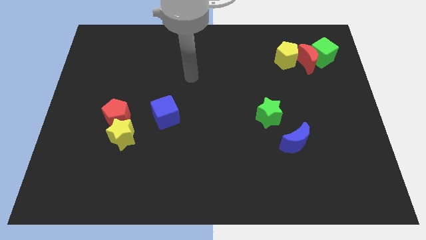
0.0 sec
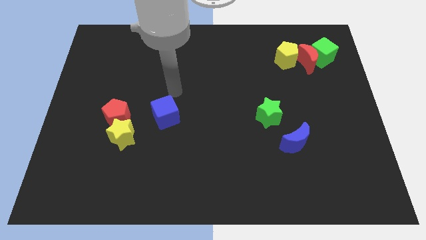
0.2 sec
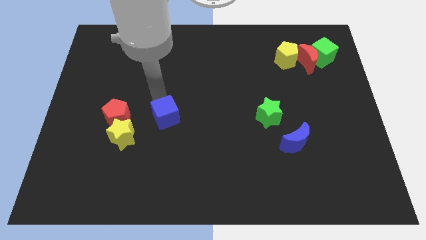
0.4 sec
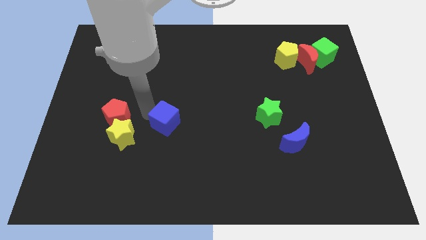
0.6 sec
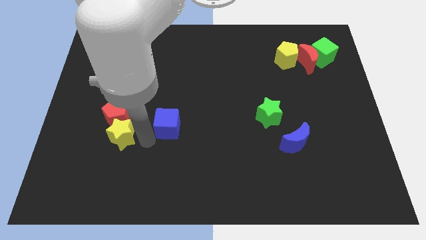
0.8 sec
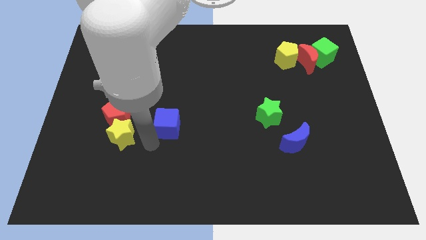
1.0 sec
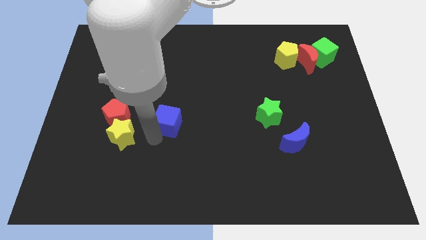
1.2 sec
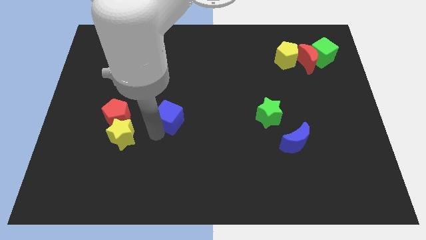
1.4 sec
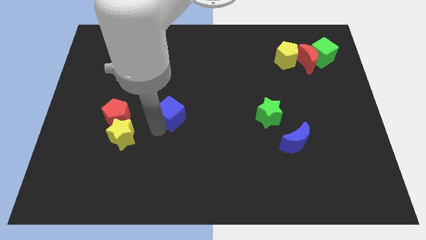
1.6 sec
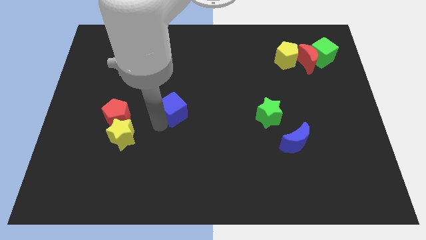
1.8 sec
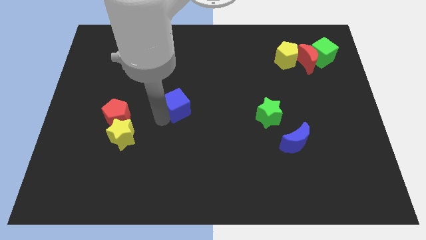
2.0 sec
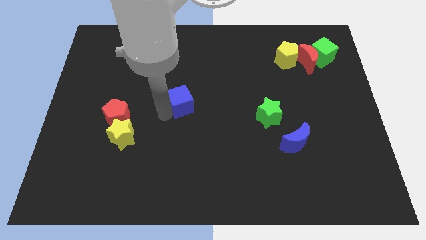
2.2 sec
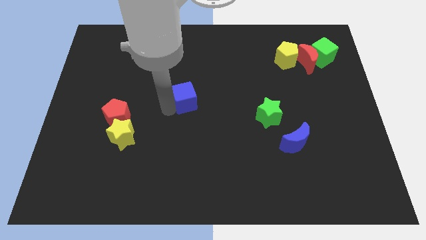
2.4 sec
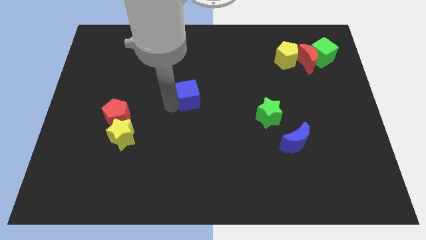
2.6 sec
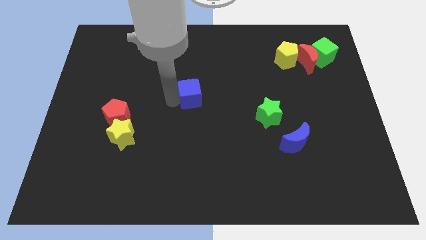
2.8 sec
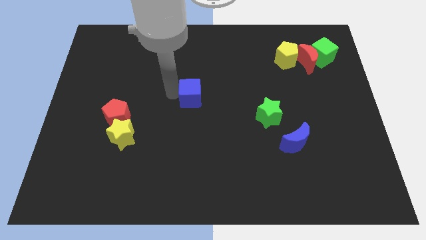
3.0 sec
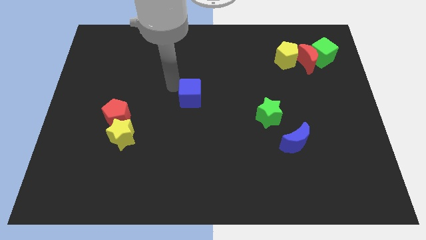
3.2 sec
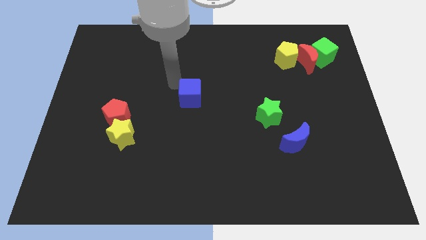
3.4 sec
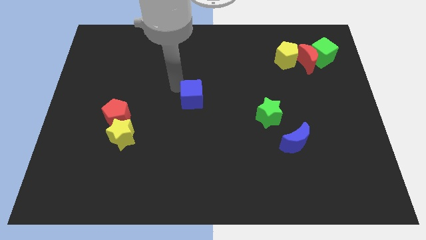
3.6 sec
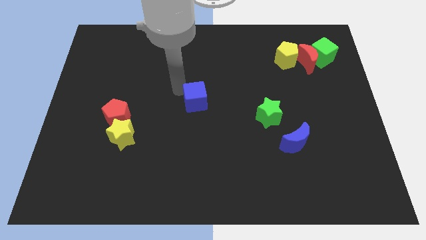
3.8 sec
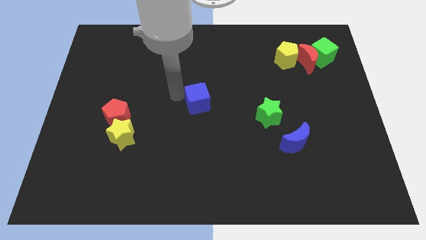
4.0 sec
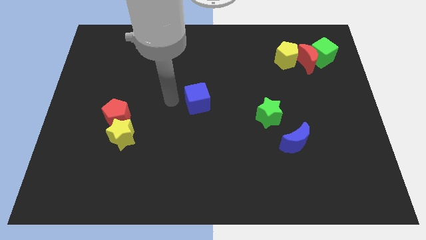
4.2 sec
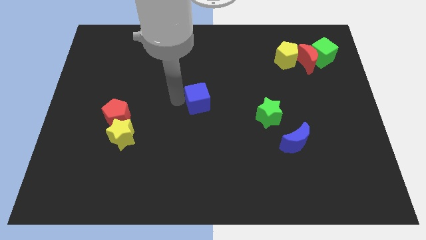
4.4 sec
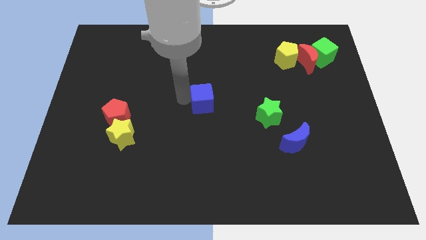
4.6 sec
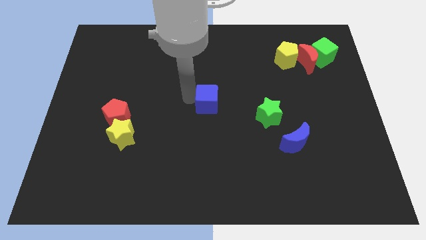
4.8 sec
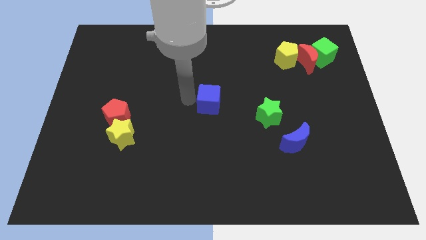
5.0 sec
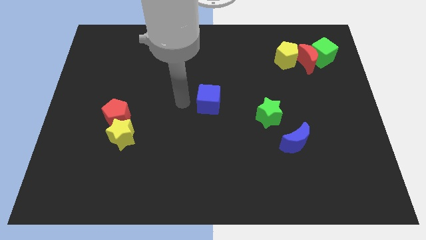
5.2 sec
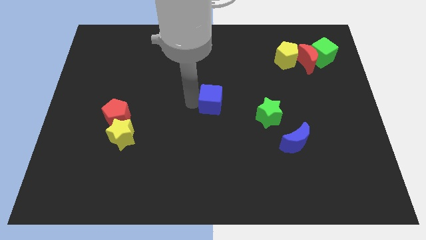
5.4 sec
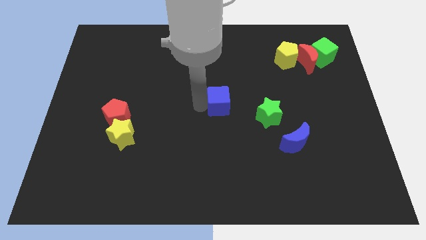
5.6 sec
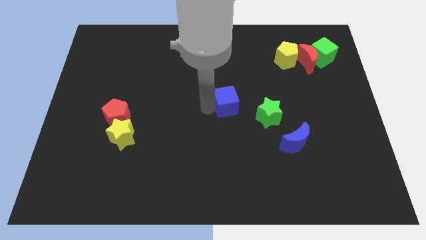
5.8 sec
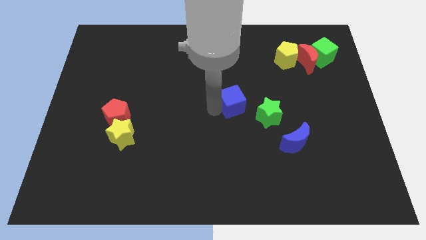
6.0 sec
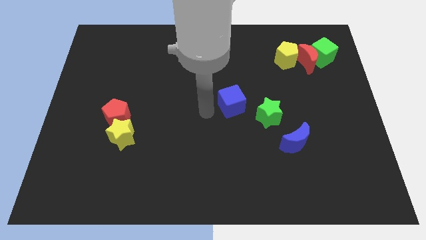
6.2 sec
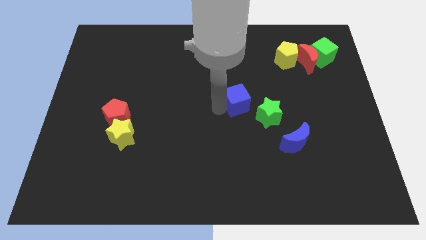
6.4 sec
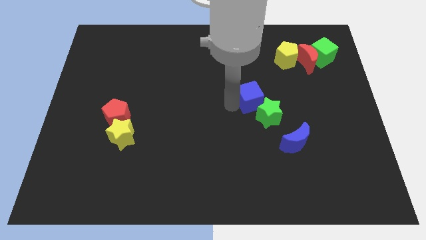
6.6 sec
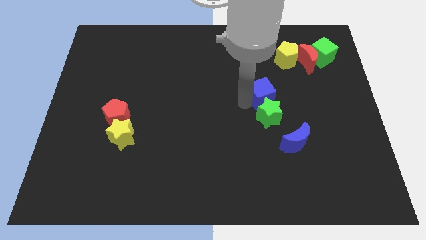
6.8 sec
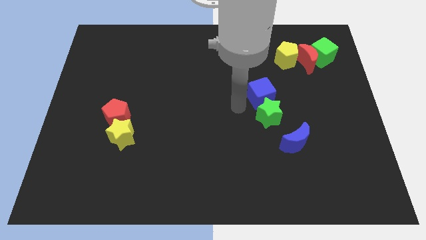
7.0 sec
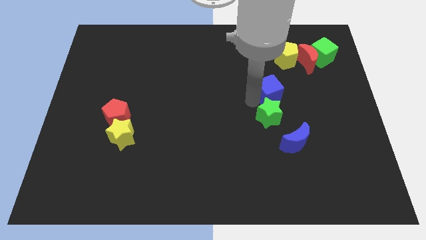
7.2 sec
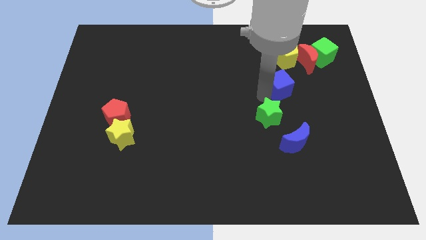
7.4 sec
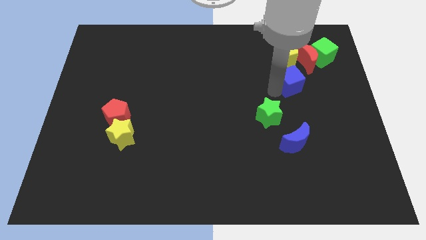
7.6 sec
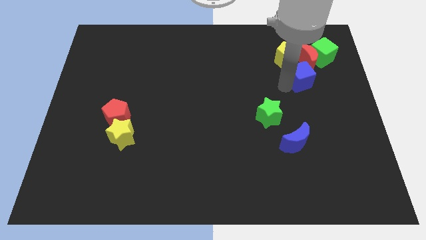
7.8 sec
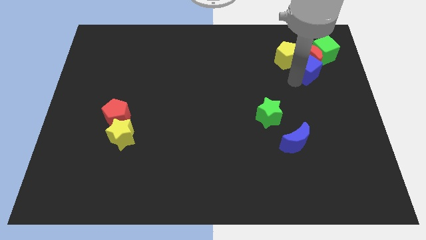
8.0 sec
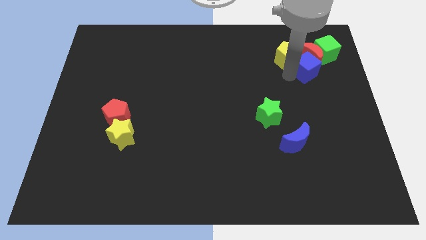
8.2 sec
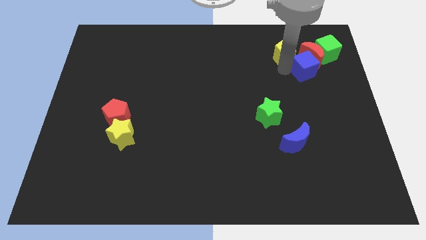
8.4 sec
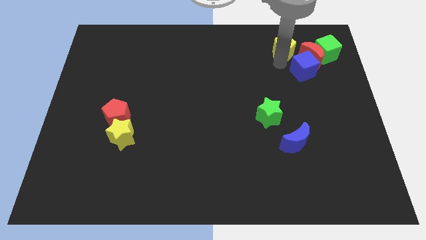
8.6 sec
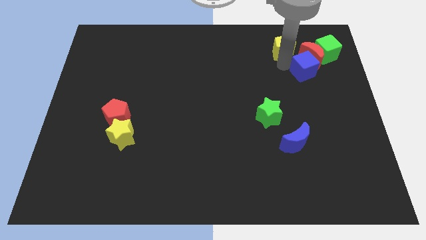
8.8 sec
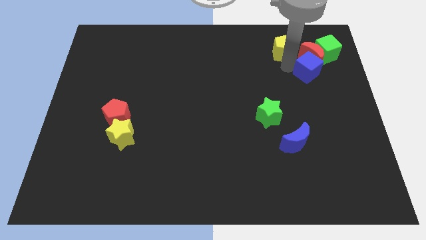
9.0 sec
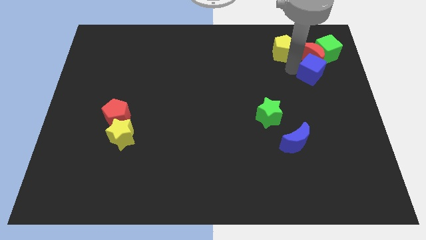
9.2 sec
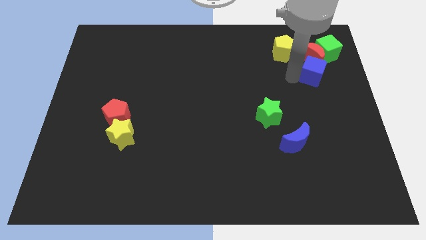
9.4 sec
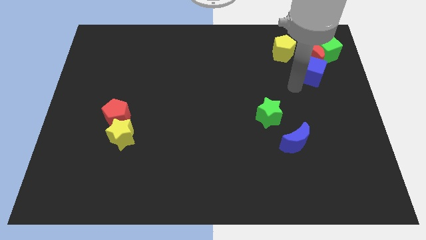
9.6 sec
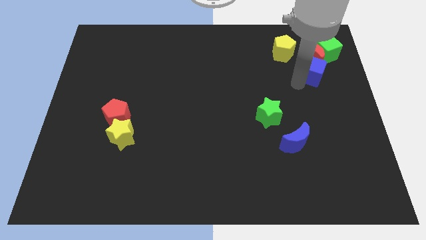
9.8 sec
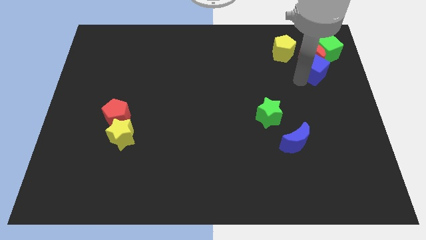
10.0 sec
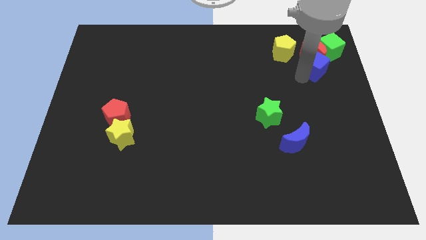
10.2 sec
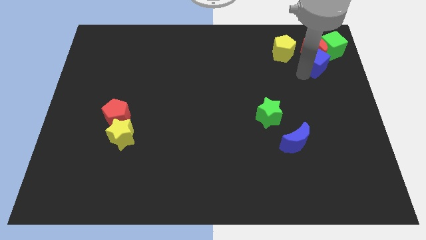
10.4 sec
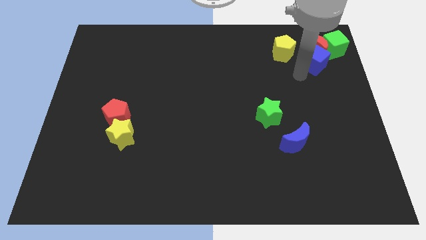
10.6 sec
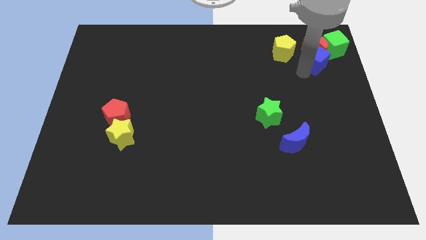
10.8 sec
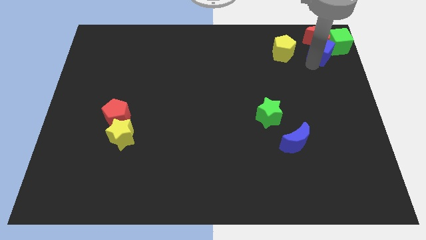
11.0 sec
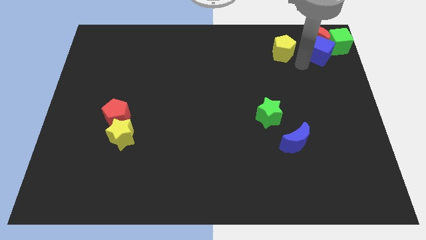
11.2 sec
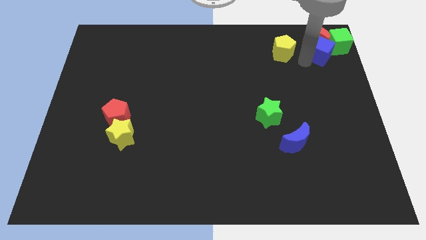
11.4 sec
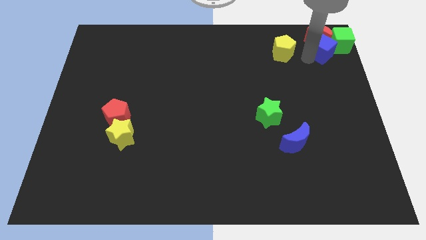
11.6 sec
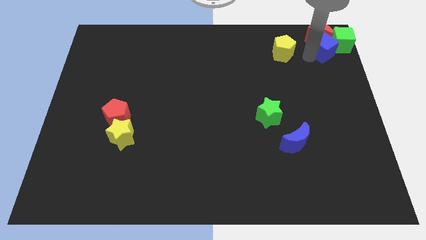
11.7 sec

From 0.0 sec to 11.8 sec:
move the blue cube towards the green cube

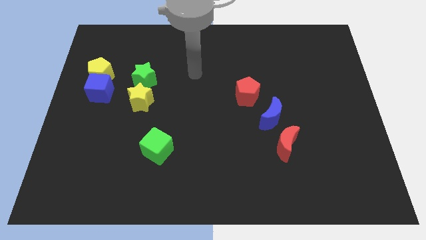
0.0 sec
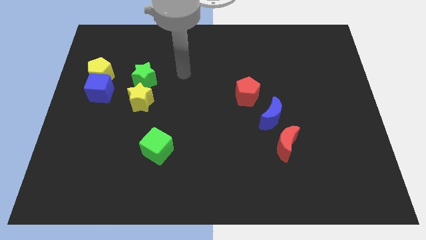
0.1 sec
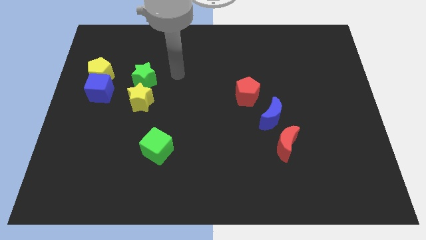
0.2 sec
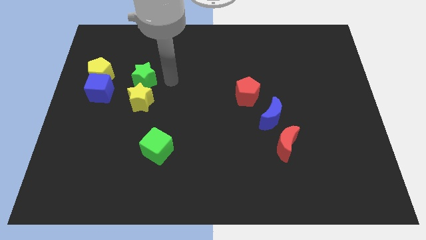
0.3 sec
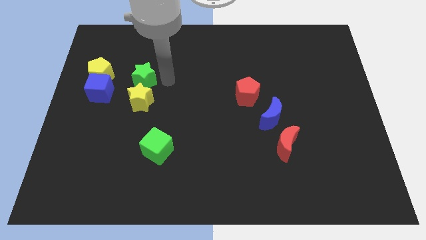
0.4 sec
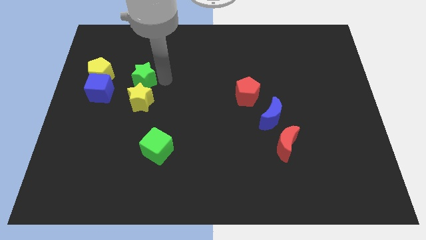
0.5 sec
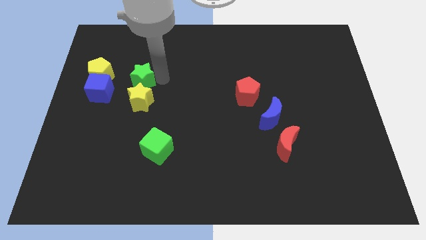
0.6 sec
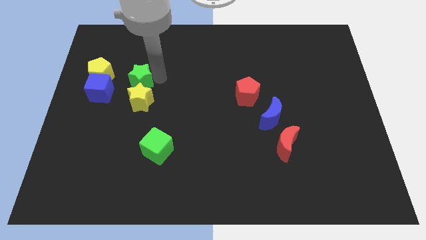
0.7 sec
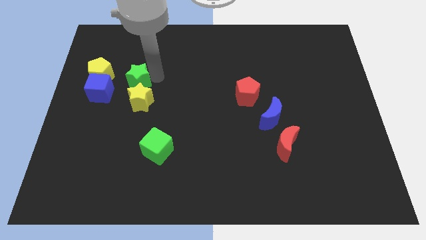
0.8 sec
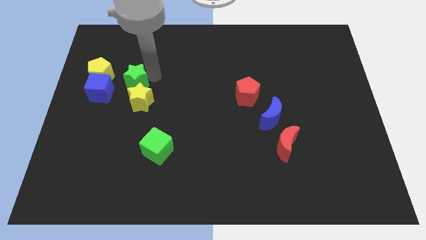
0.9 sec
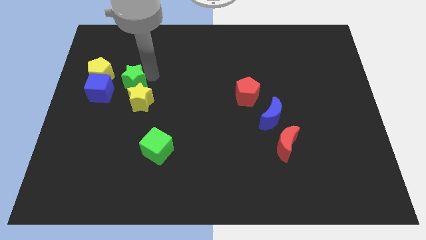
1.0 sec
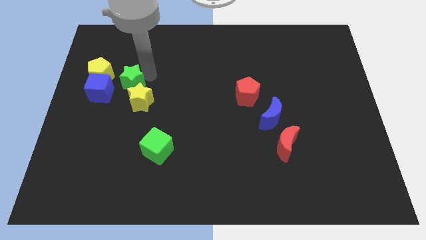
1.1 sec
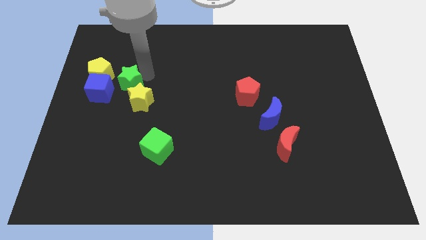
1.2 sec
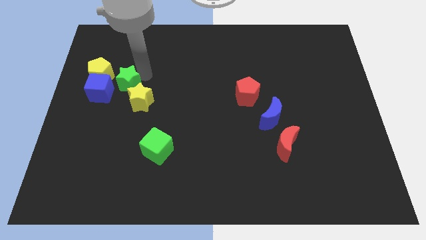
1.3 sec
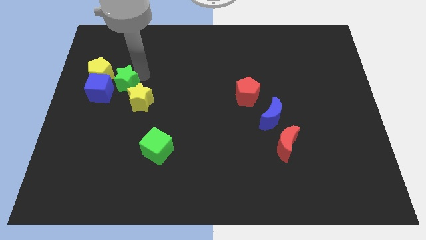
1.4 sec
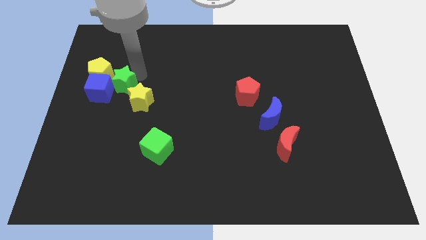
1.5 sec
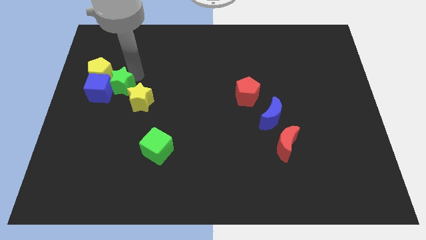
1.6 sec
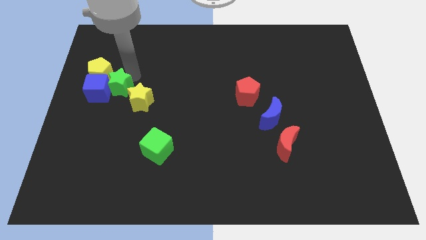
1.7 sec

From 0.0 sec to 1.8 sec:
slide the green star towards the yellow pentagon
